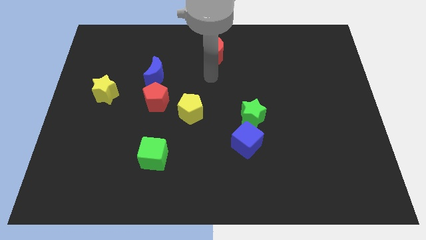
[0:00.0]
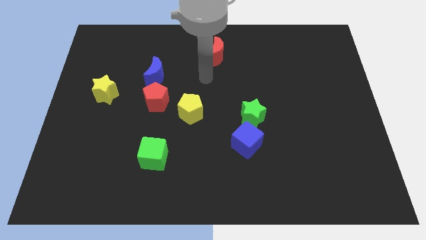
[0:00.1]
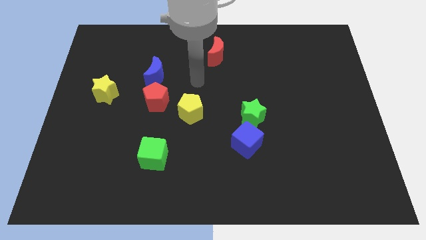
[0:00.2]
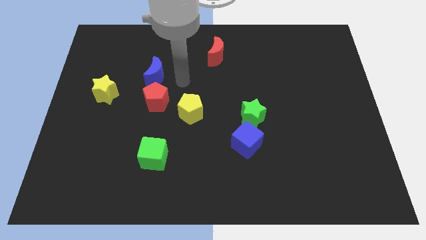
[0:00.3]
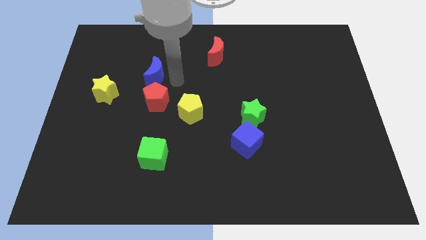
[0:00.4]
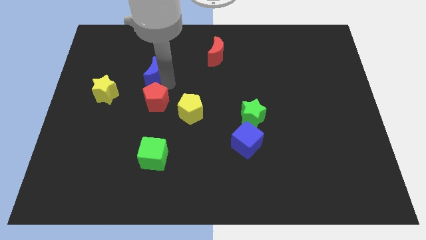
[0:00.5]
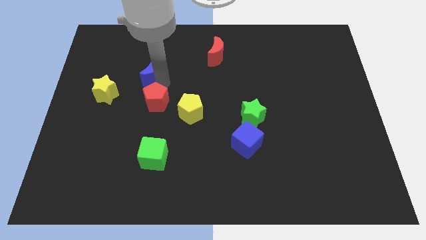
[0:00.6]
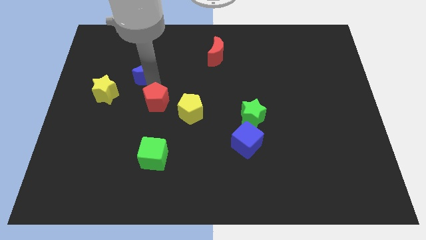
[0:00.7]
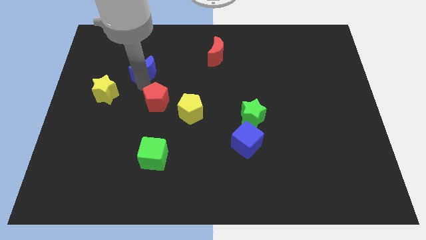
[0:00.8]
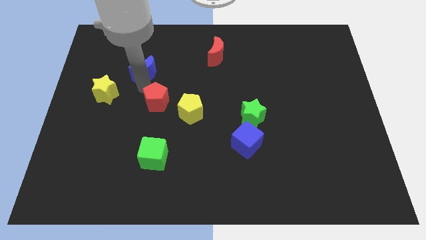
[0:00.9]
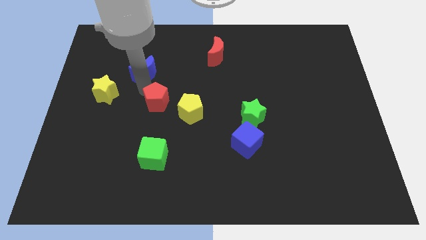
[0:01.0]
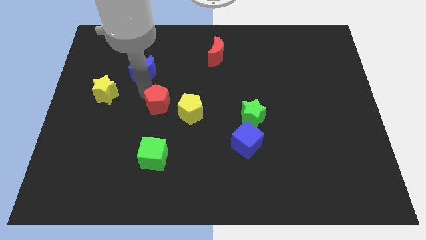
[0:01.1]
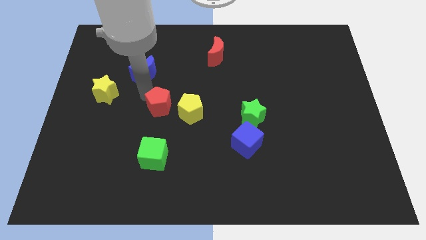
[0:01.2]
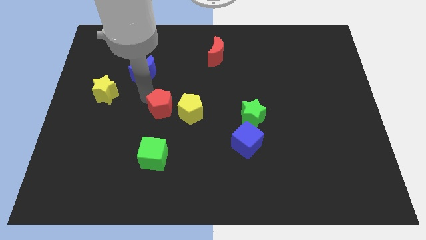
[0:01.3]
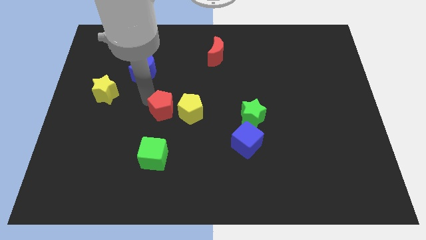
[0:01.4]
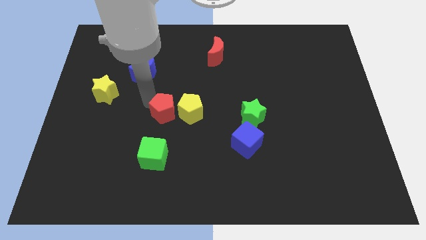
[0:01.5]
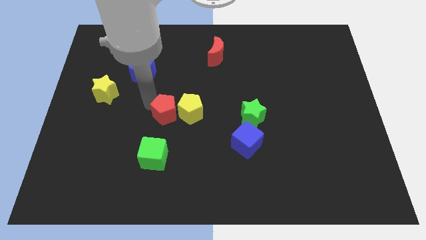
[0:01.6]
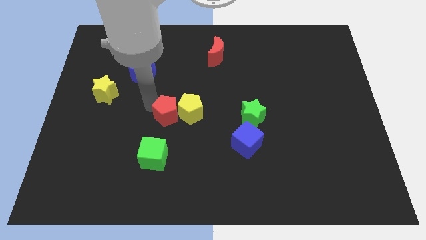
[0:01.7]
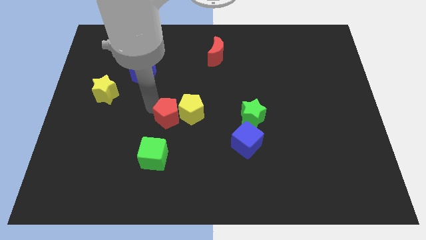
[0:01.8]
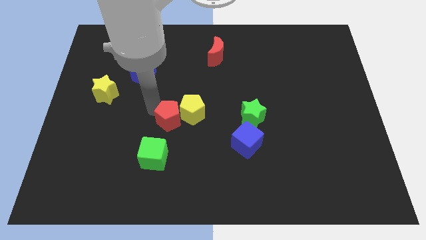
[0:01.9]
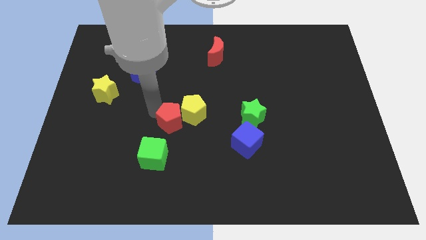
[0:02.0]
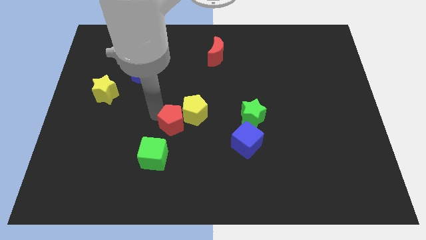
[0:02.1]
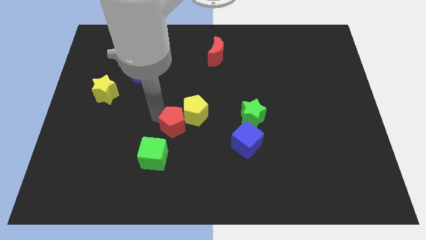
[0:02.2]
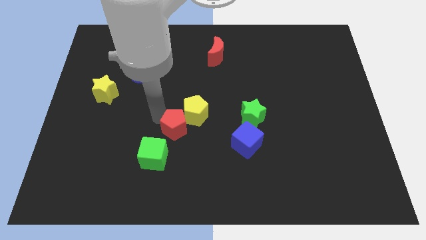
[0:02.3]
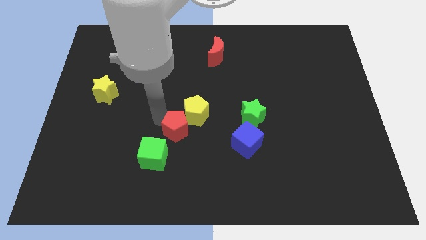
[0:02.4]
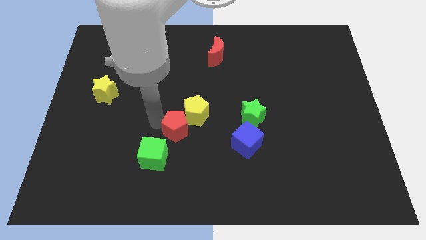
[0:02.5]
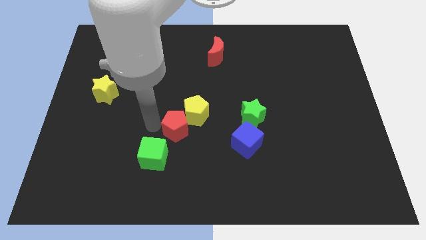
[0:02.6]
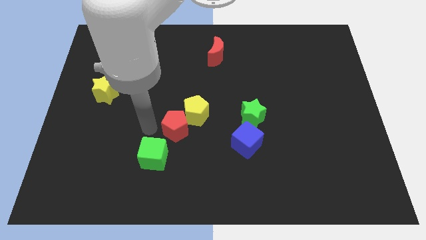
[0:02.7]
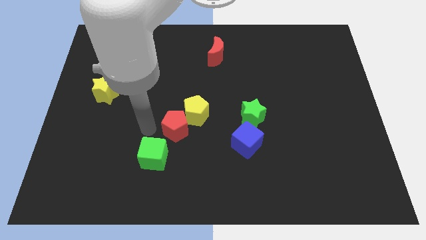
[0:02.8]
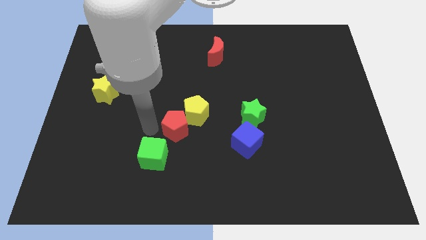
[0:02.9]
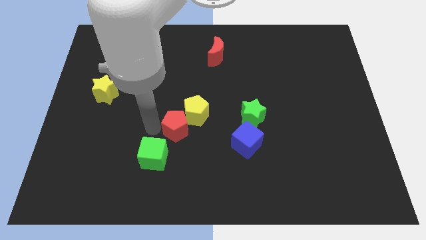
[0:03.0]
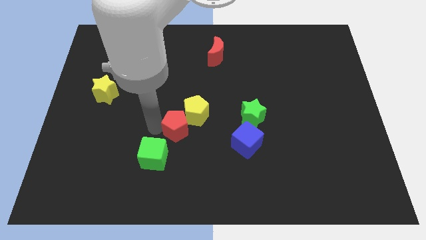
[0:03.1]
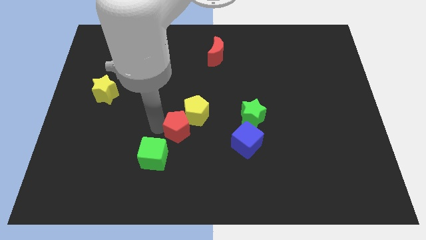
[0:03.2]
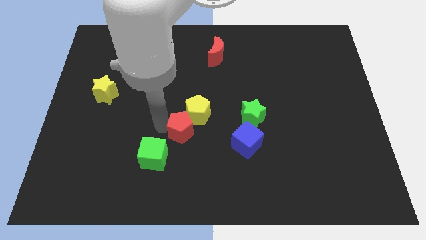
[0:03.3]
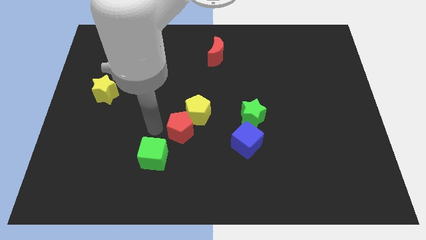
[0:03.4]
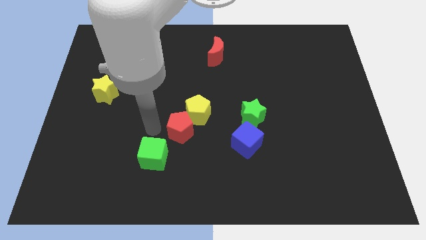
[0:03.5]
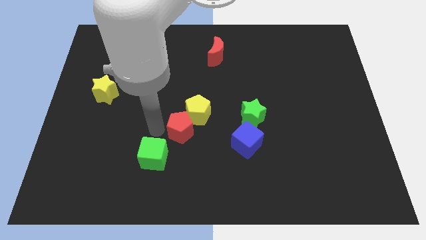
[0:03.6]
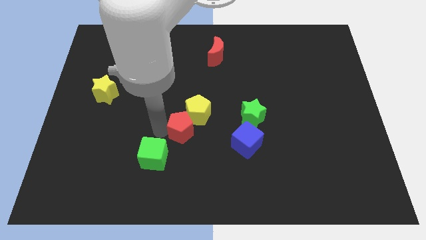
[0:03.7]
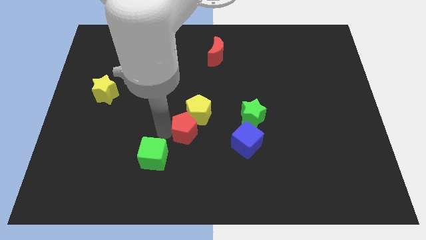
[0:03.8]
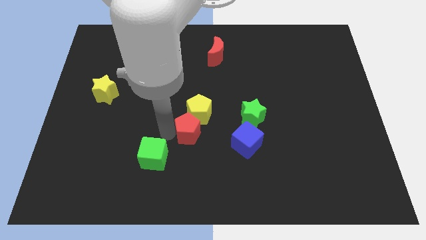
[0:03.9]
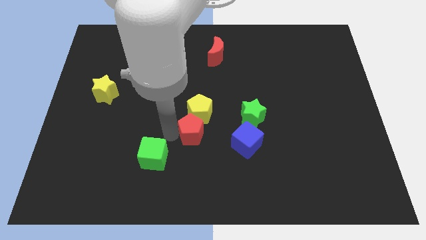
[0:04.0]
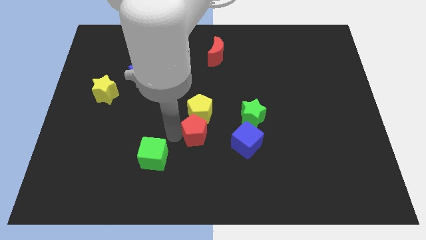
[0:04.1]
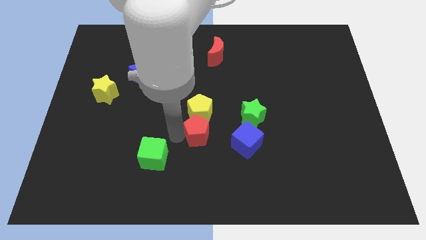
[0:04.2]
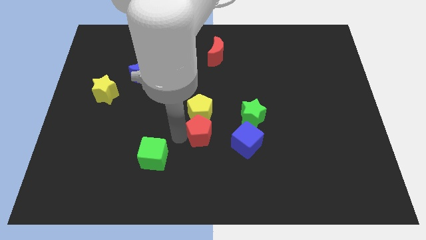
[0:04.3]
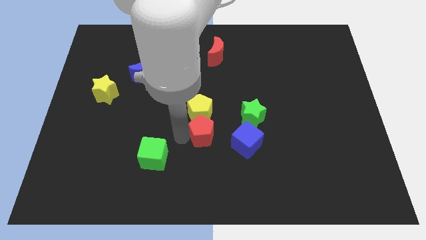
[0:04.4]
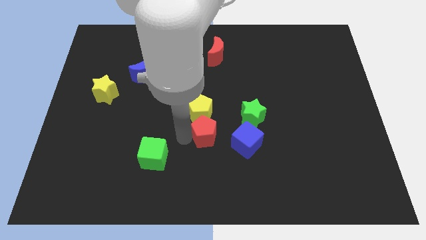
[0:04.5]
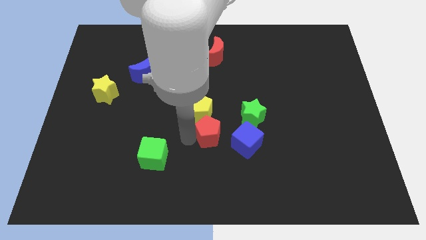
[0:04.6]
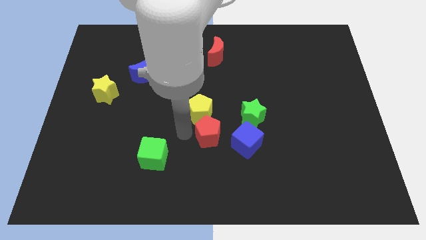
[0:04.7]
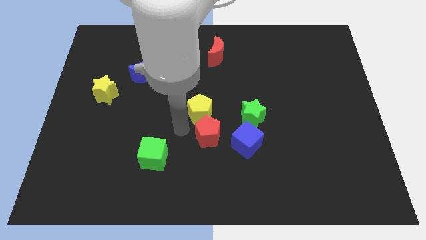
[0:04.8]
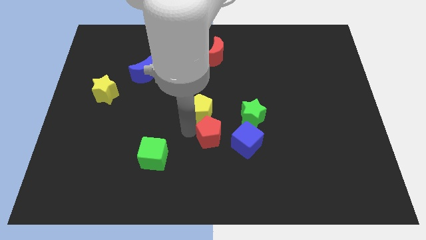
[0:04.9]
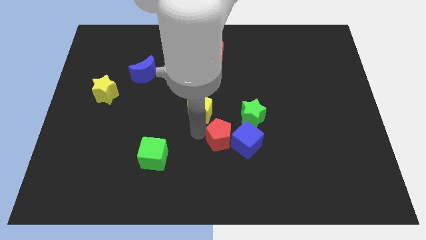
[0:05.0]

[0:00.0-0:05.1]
move the red pentagon towards the blue cube

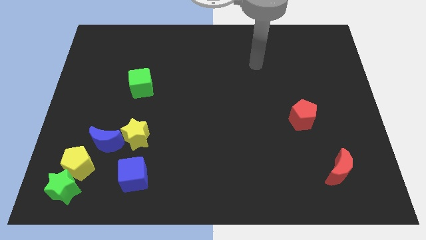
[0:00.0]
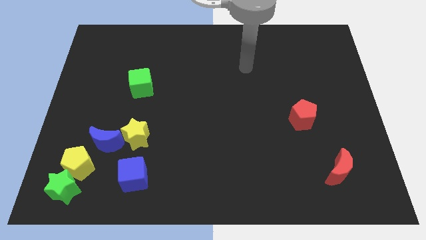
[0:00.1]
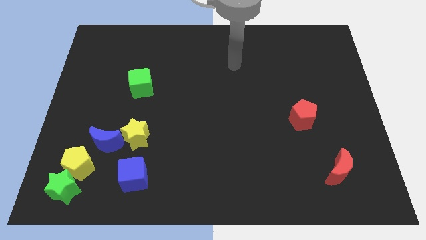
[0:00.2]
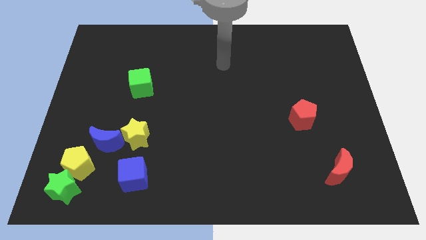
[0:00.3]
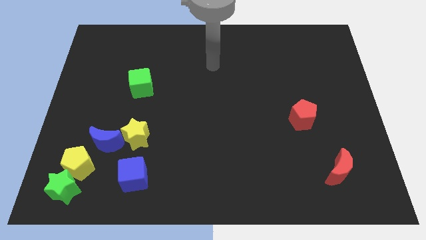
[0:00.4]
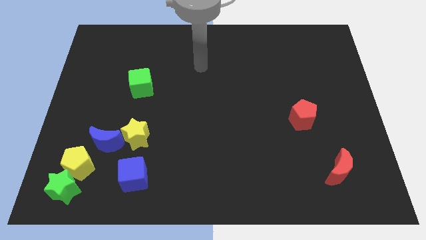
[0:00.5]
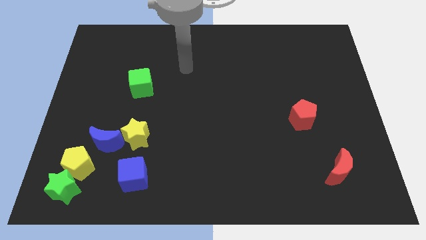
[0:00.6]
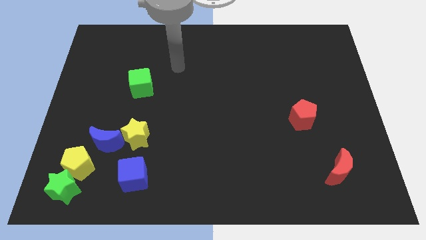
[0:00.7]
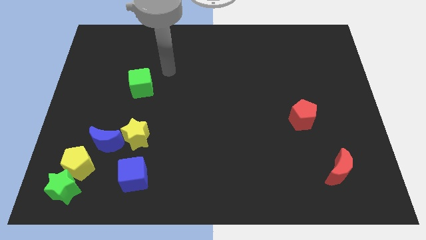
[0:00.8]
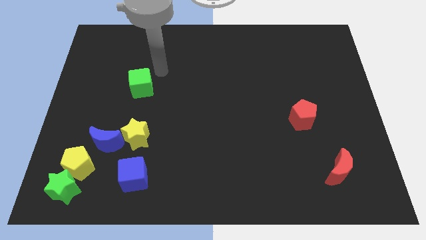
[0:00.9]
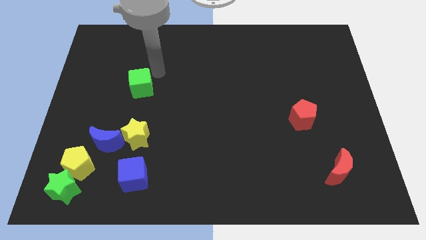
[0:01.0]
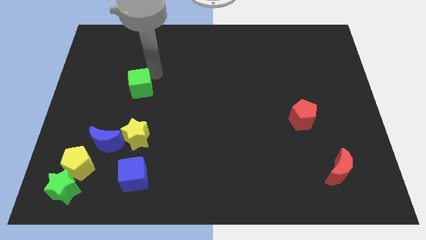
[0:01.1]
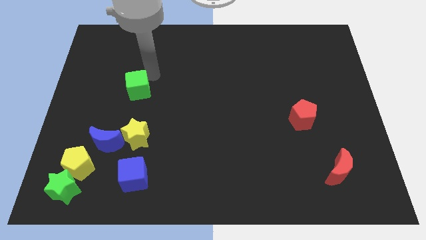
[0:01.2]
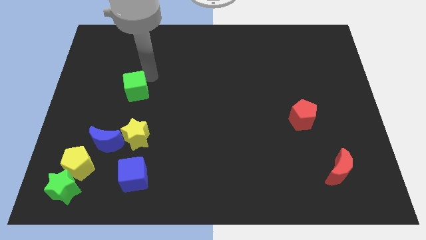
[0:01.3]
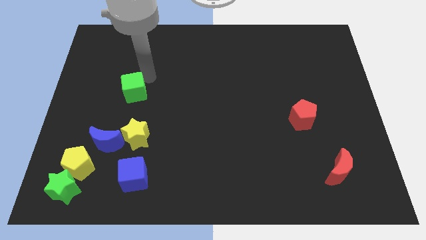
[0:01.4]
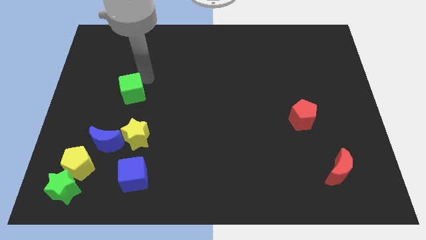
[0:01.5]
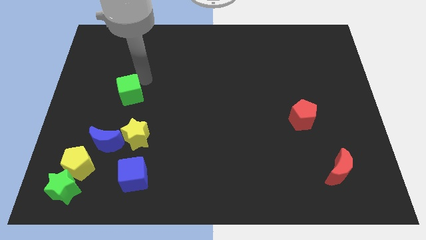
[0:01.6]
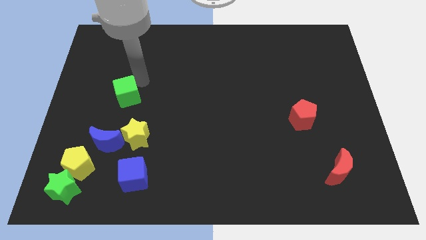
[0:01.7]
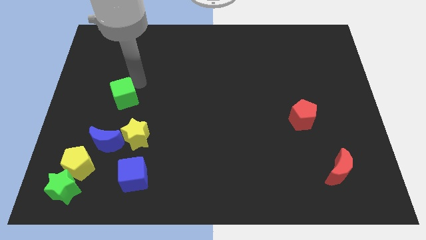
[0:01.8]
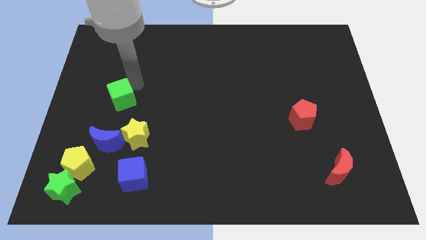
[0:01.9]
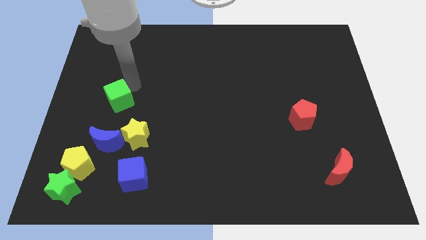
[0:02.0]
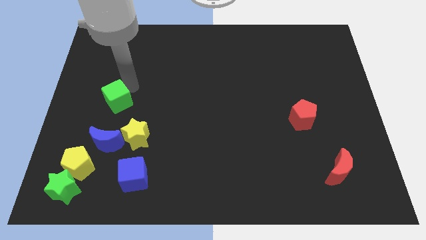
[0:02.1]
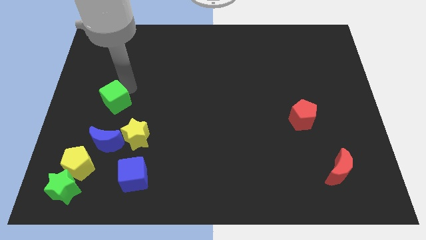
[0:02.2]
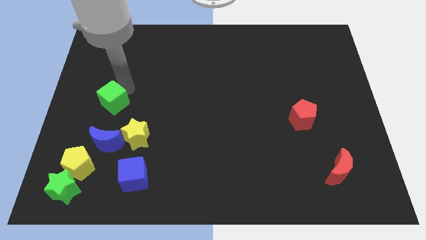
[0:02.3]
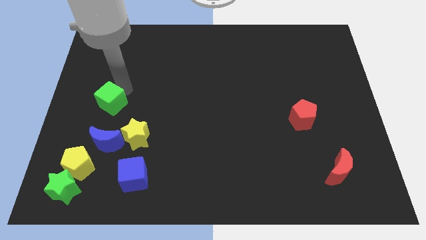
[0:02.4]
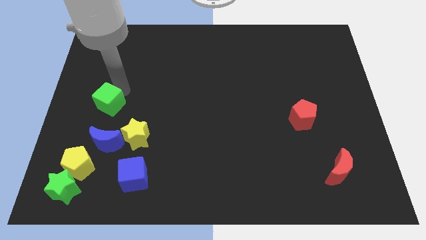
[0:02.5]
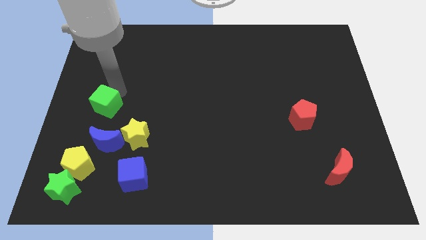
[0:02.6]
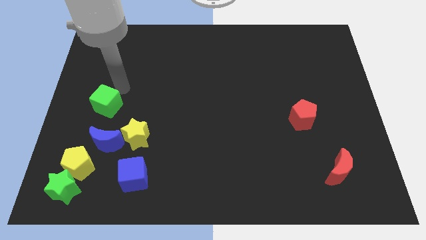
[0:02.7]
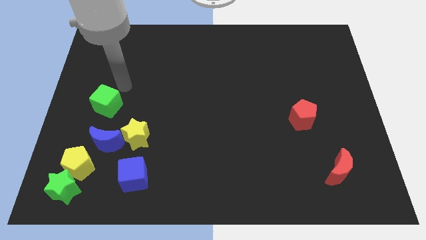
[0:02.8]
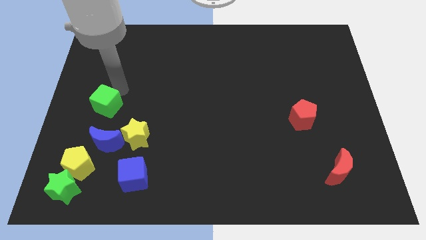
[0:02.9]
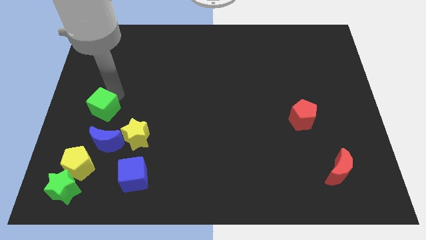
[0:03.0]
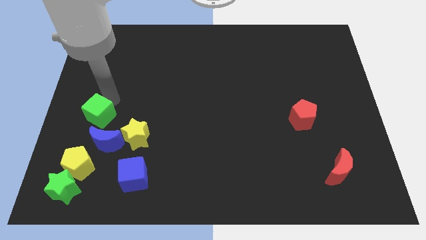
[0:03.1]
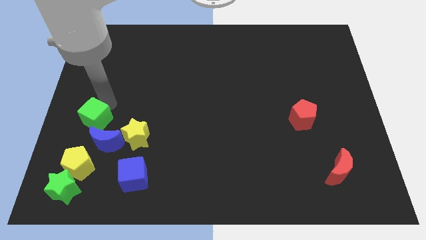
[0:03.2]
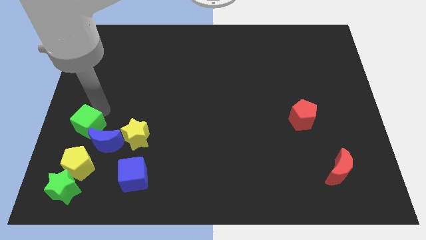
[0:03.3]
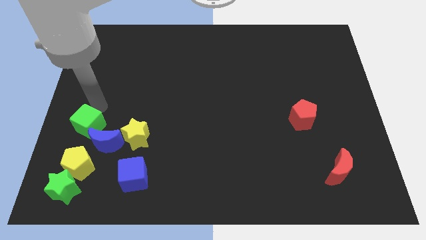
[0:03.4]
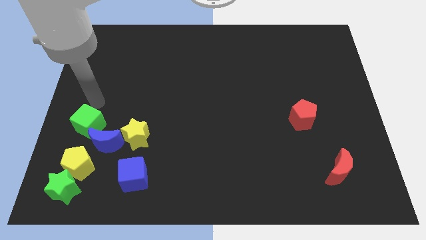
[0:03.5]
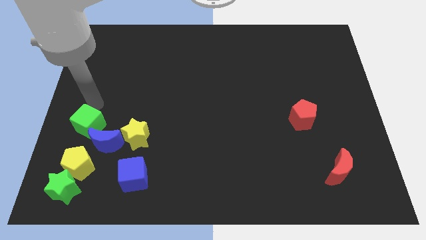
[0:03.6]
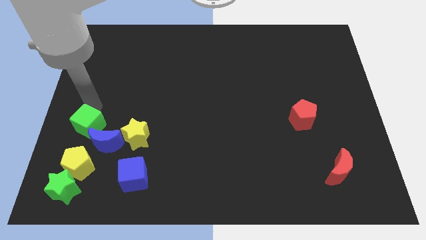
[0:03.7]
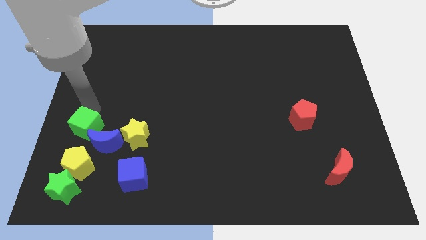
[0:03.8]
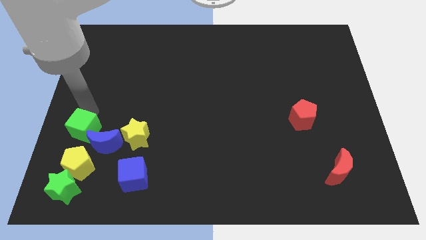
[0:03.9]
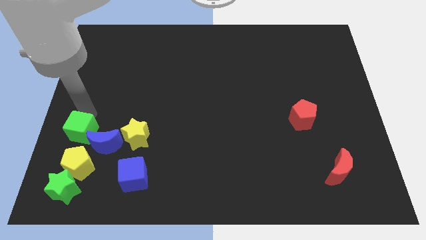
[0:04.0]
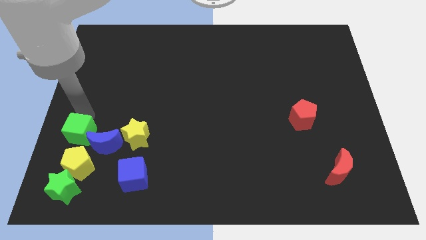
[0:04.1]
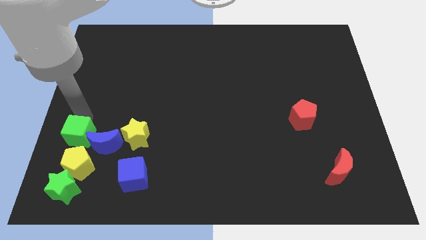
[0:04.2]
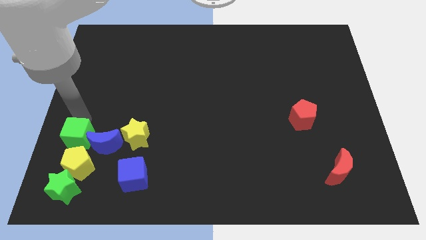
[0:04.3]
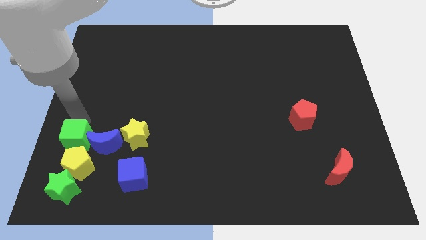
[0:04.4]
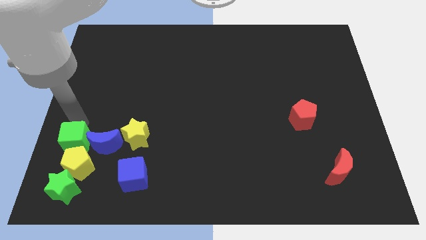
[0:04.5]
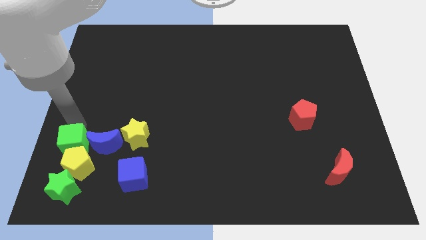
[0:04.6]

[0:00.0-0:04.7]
move the green cube towards the yellow pentagon
